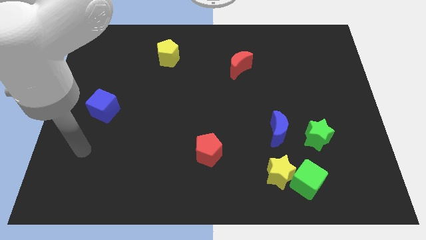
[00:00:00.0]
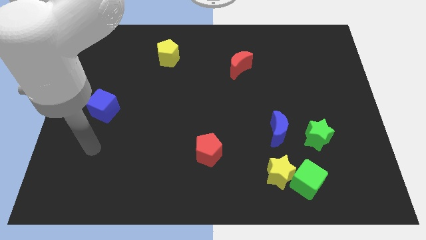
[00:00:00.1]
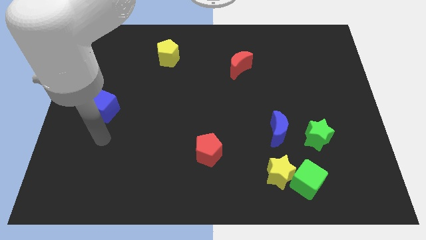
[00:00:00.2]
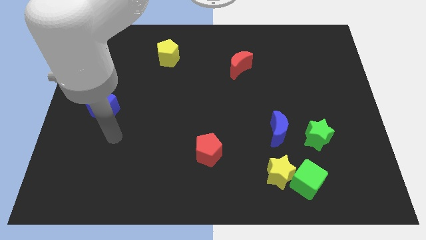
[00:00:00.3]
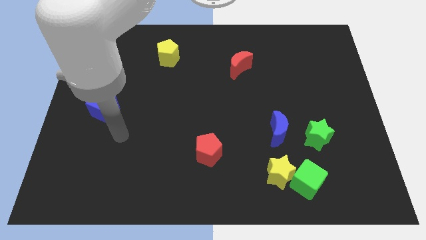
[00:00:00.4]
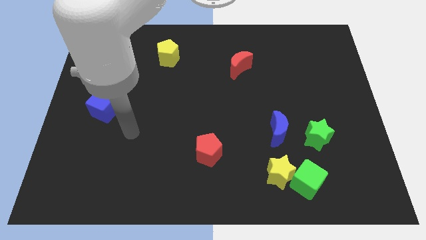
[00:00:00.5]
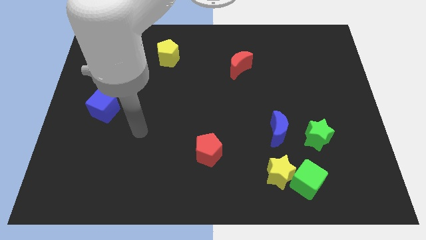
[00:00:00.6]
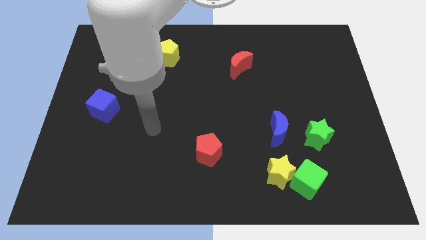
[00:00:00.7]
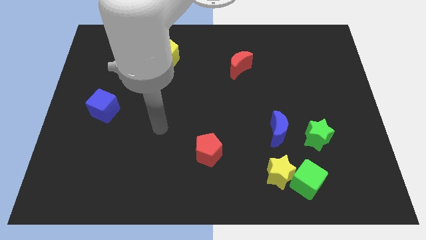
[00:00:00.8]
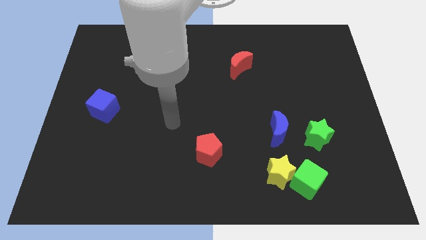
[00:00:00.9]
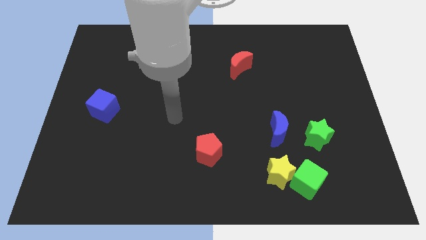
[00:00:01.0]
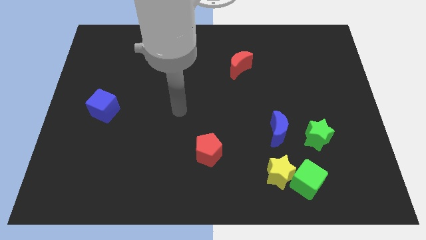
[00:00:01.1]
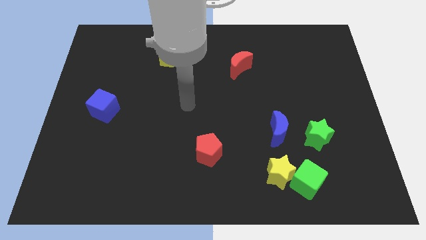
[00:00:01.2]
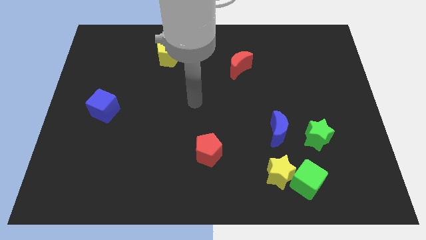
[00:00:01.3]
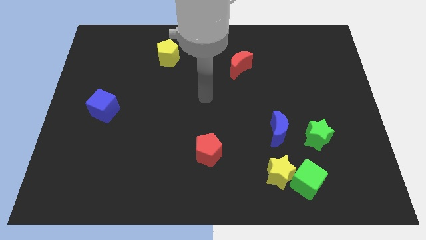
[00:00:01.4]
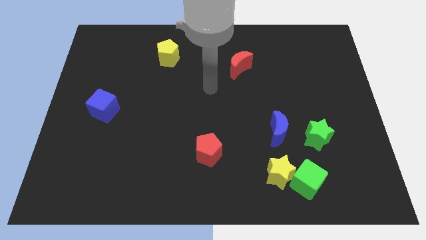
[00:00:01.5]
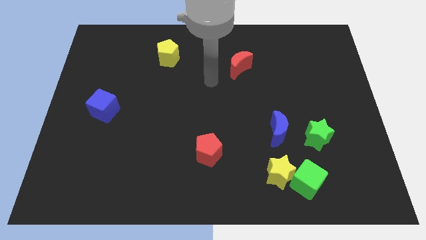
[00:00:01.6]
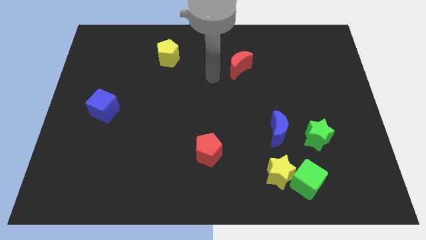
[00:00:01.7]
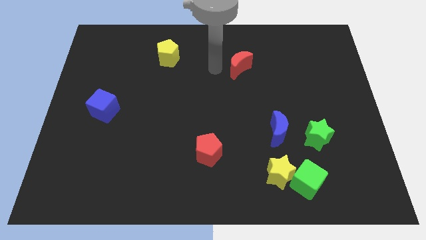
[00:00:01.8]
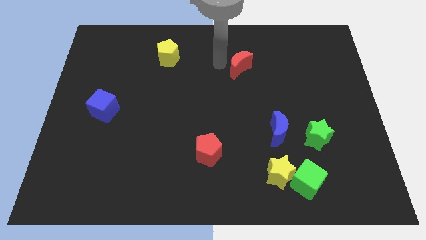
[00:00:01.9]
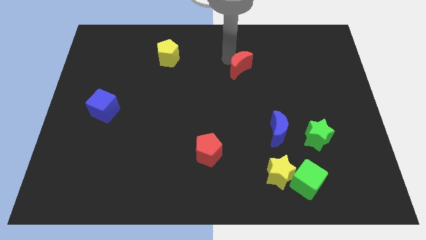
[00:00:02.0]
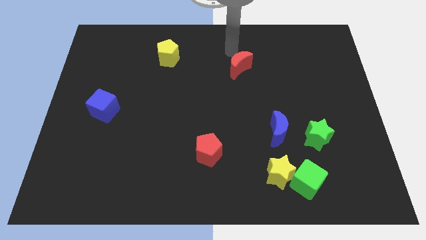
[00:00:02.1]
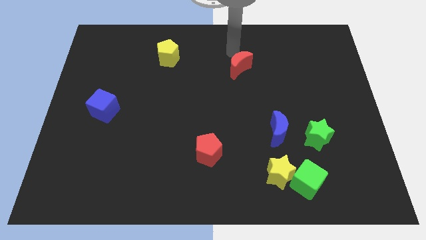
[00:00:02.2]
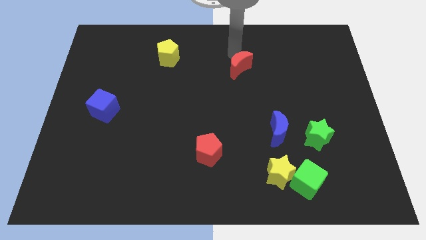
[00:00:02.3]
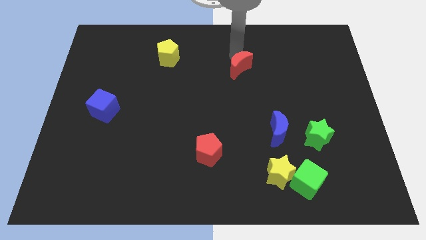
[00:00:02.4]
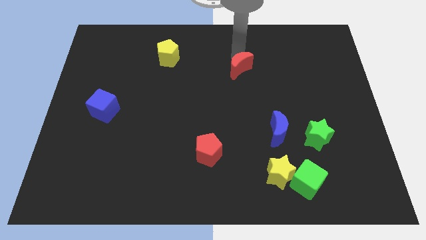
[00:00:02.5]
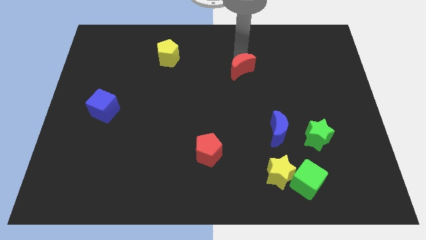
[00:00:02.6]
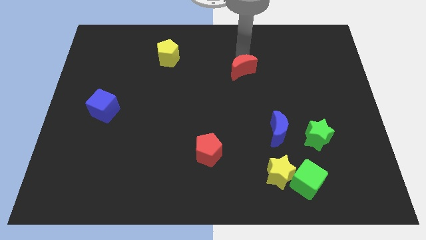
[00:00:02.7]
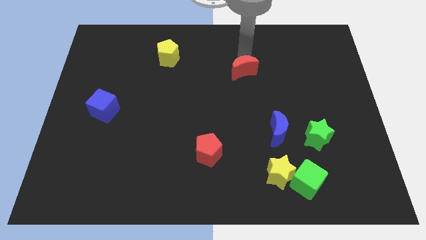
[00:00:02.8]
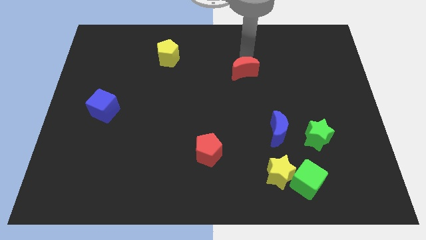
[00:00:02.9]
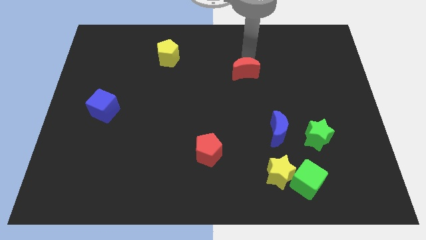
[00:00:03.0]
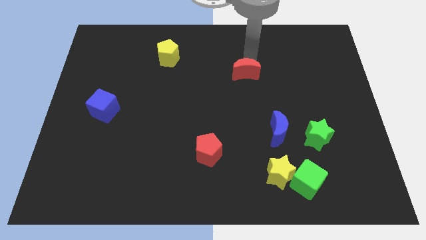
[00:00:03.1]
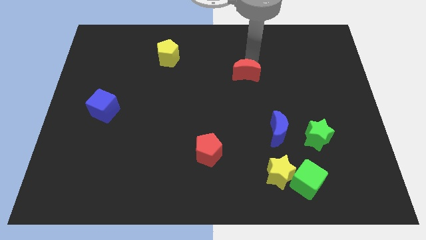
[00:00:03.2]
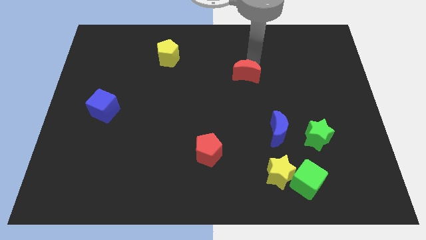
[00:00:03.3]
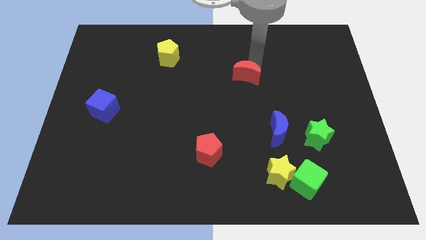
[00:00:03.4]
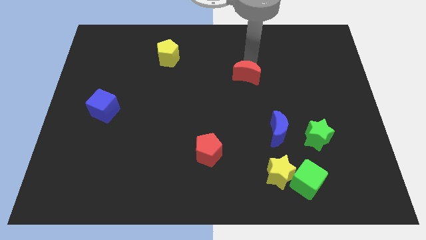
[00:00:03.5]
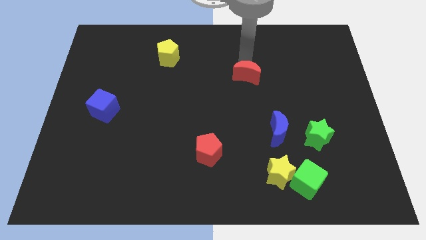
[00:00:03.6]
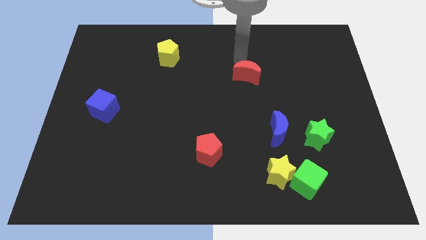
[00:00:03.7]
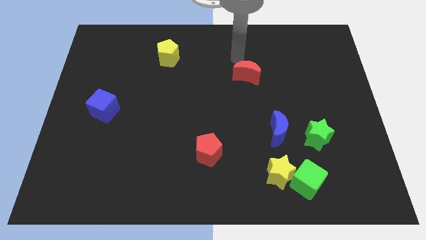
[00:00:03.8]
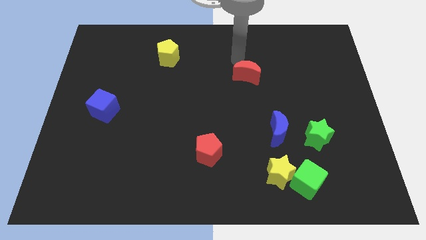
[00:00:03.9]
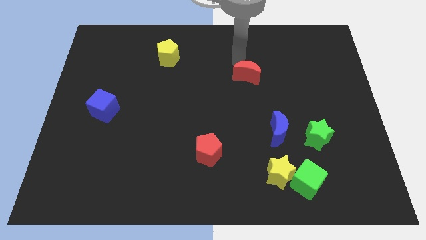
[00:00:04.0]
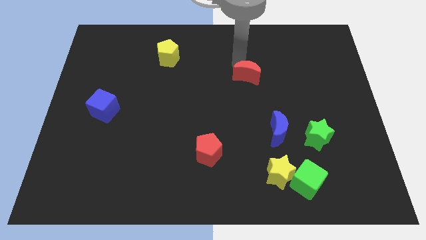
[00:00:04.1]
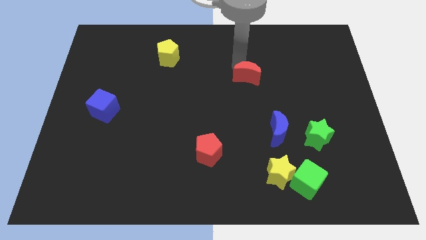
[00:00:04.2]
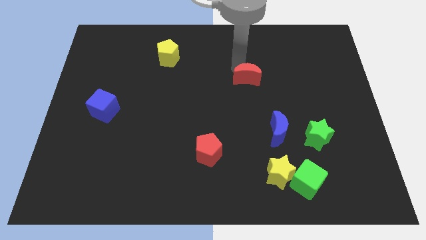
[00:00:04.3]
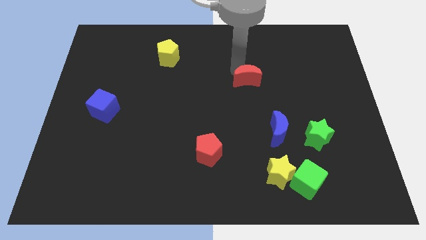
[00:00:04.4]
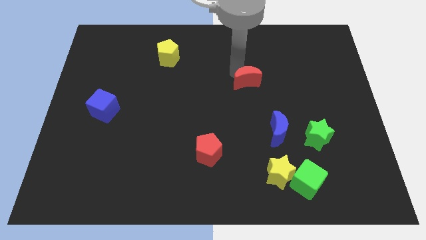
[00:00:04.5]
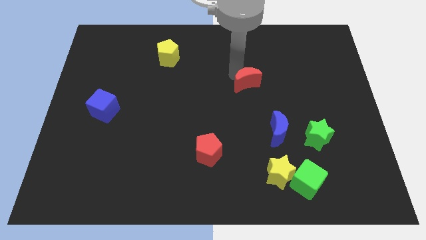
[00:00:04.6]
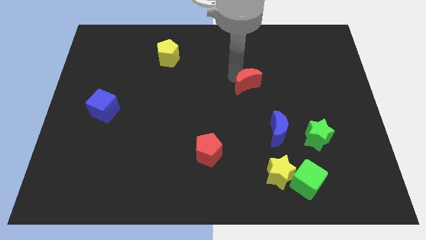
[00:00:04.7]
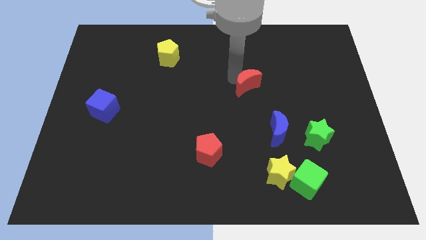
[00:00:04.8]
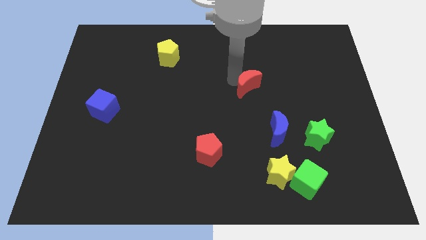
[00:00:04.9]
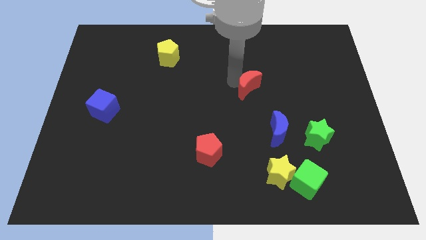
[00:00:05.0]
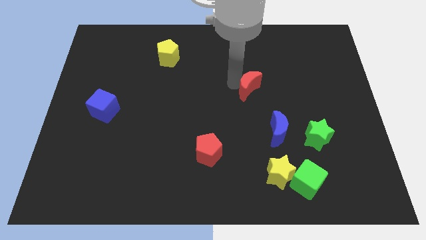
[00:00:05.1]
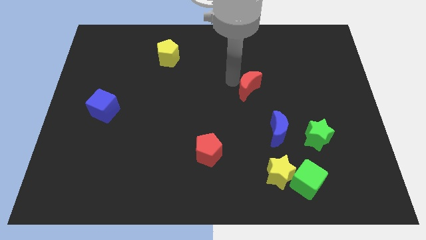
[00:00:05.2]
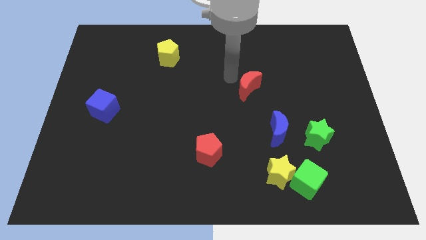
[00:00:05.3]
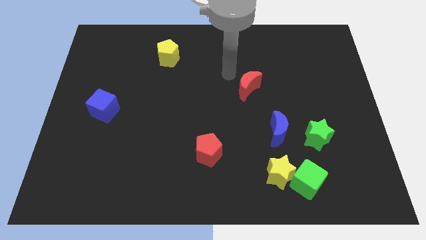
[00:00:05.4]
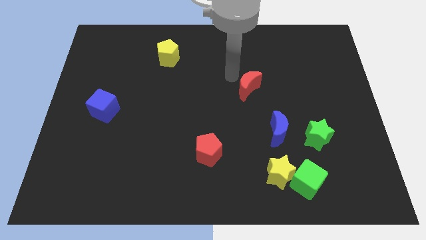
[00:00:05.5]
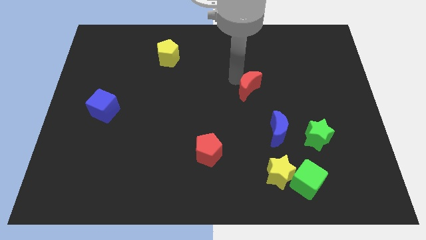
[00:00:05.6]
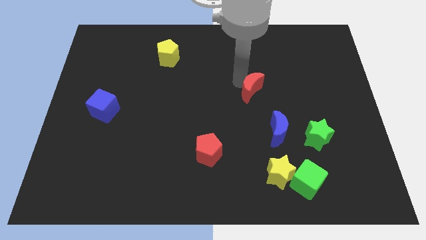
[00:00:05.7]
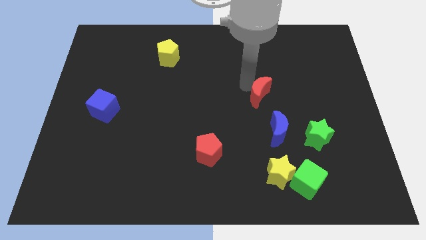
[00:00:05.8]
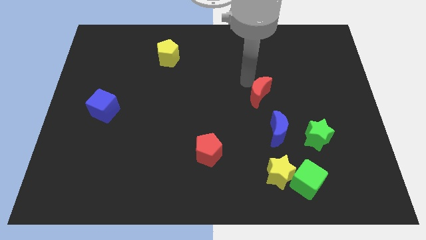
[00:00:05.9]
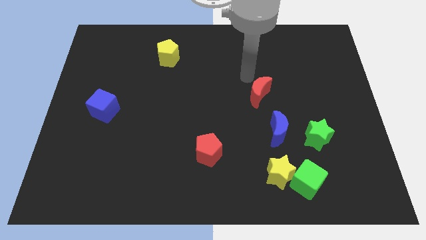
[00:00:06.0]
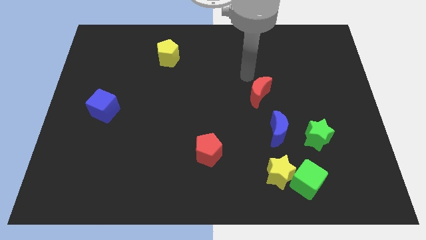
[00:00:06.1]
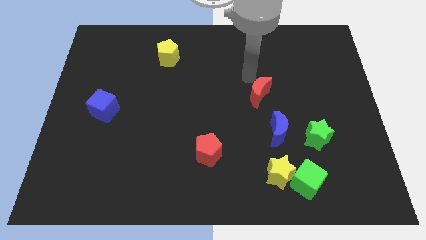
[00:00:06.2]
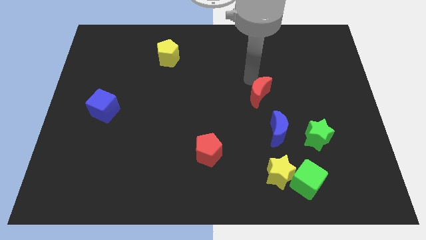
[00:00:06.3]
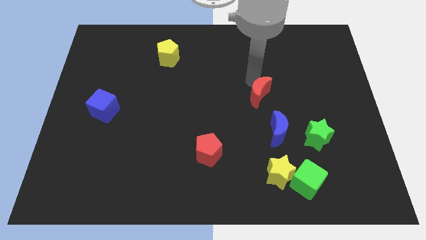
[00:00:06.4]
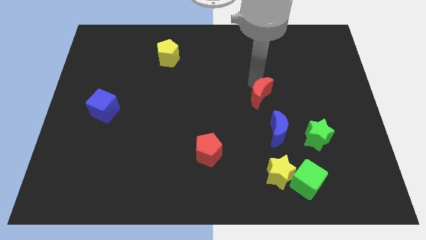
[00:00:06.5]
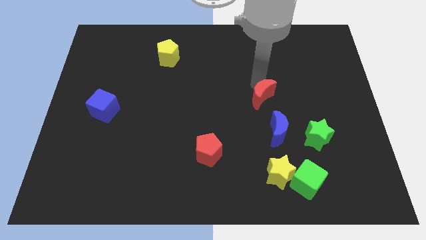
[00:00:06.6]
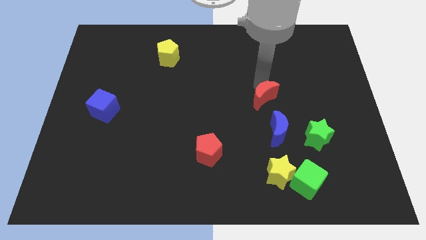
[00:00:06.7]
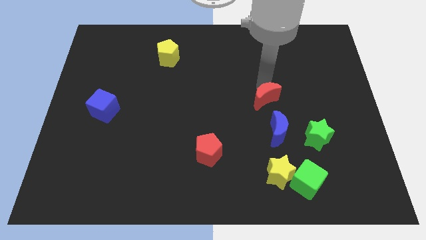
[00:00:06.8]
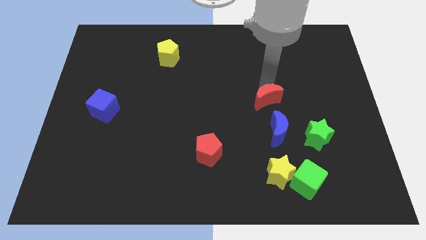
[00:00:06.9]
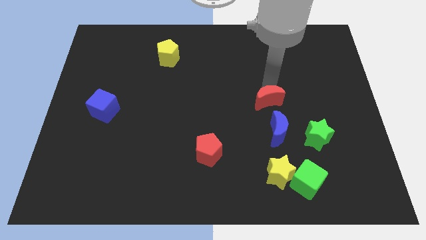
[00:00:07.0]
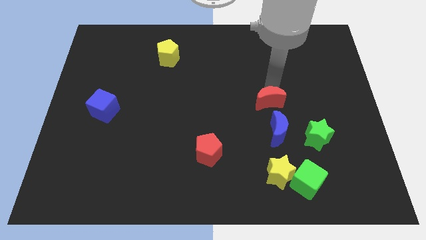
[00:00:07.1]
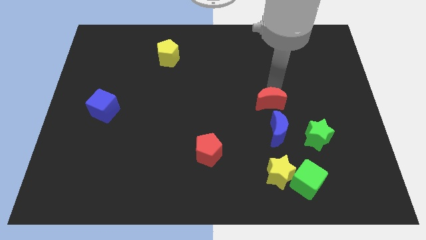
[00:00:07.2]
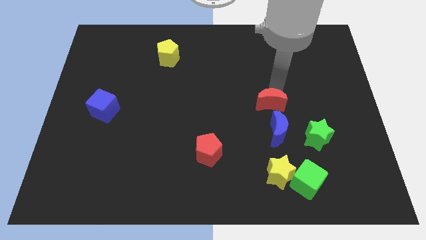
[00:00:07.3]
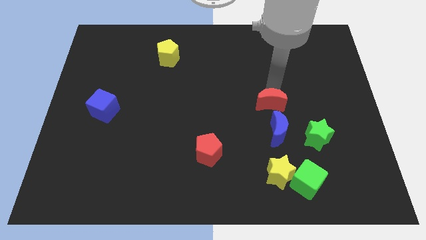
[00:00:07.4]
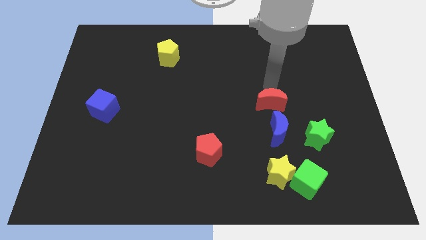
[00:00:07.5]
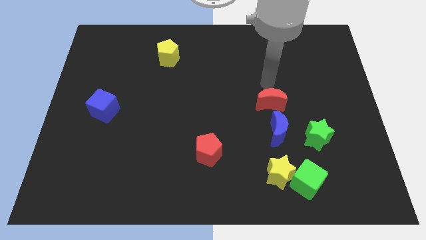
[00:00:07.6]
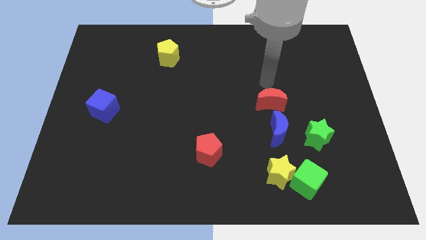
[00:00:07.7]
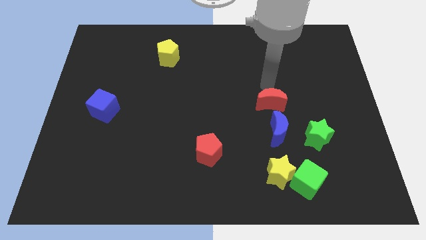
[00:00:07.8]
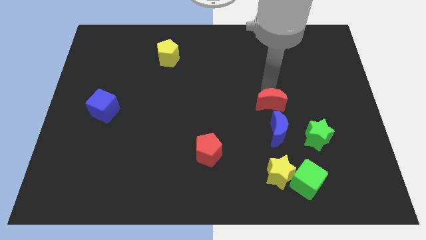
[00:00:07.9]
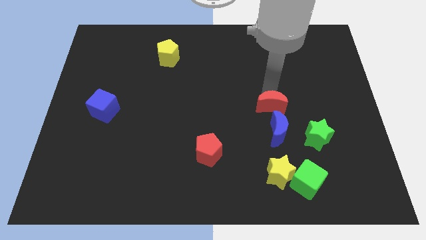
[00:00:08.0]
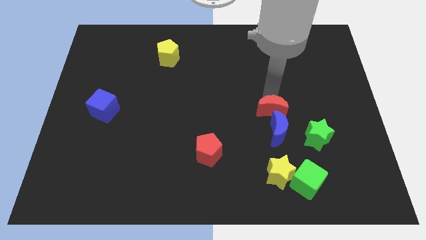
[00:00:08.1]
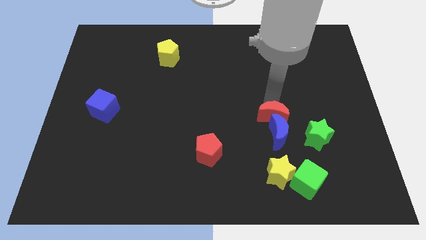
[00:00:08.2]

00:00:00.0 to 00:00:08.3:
push the red moon to the top side of the yellow star
